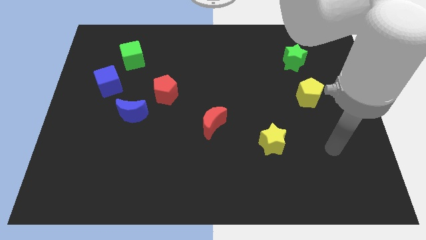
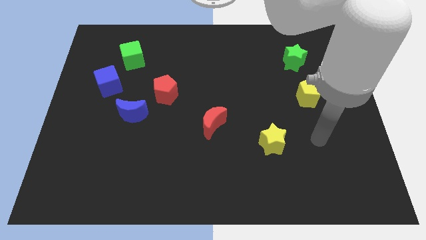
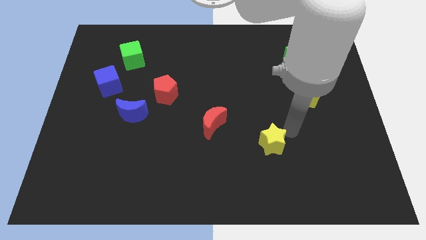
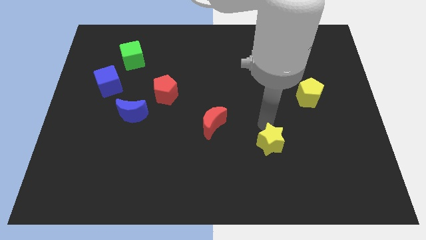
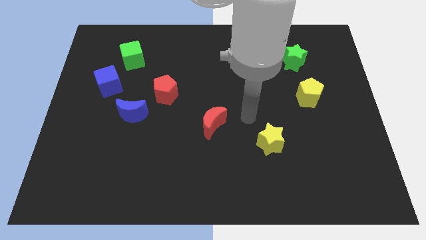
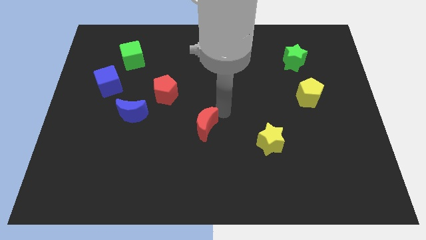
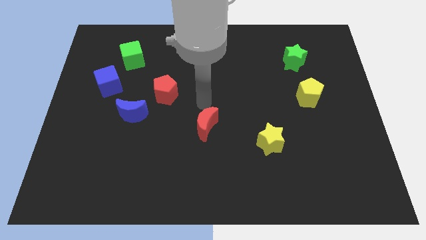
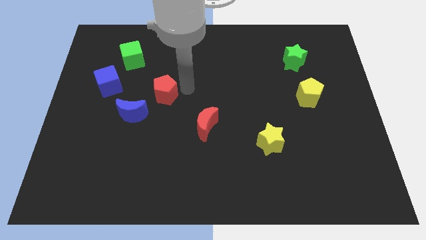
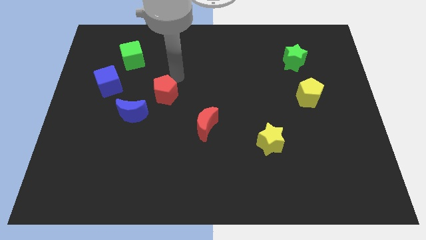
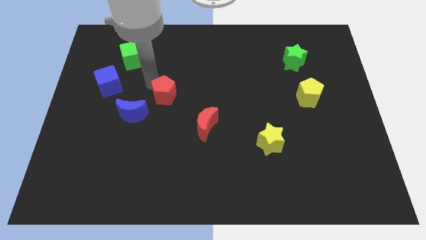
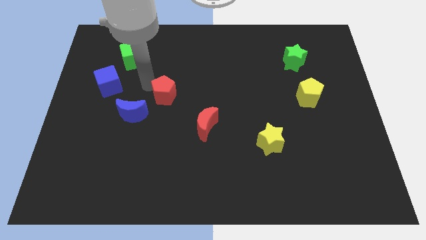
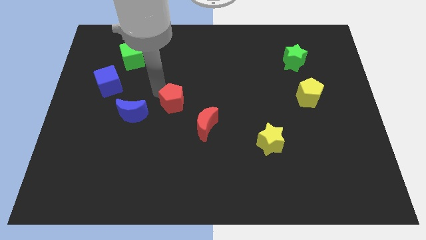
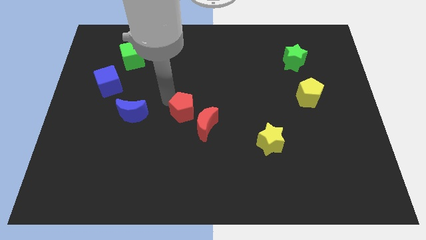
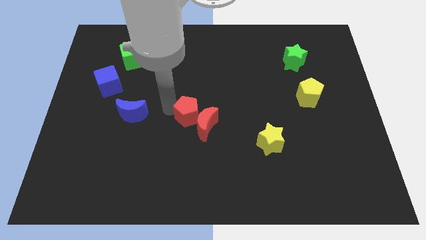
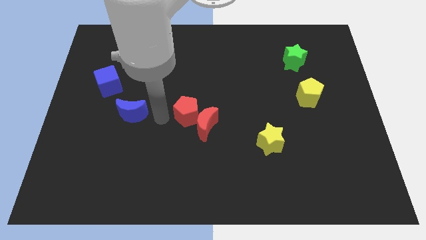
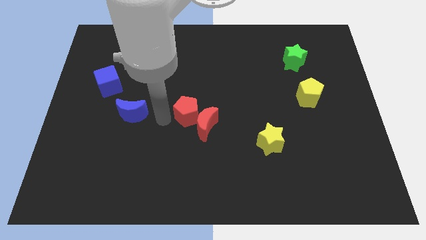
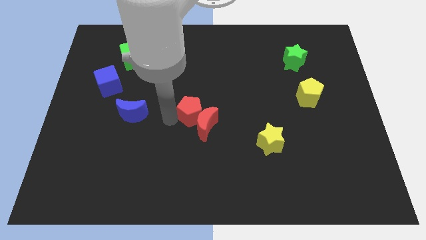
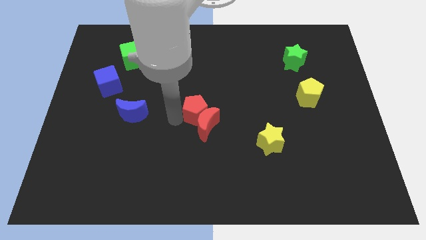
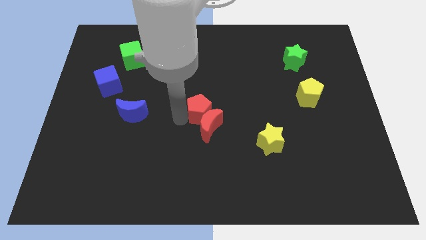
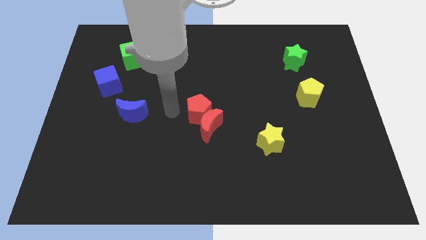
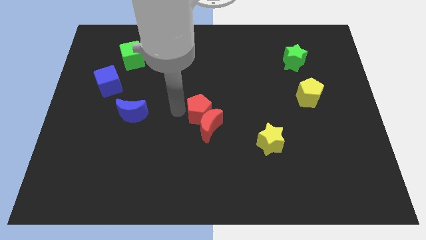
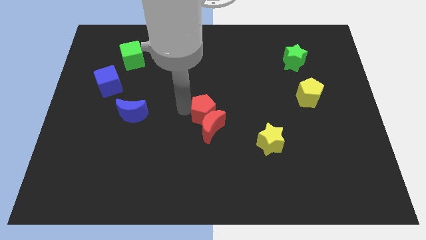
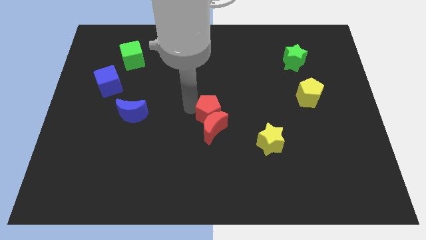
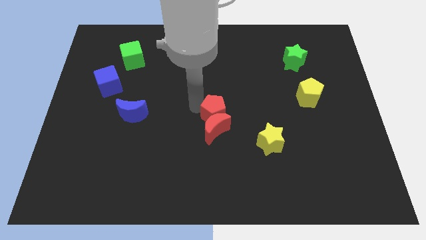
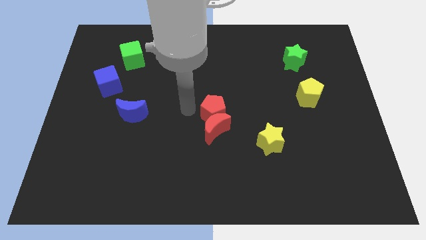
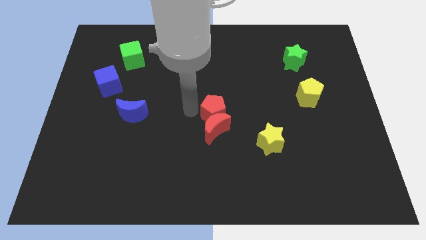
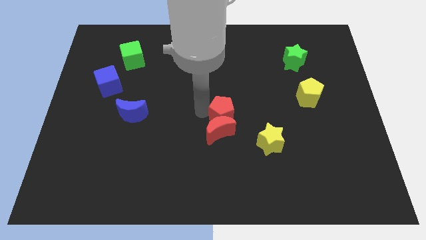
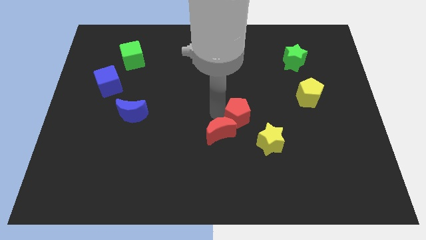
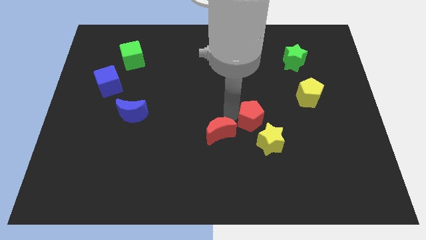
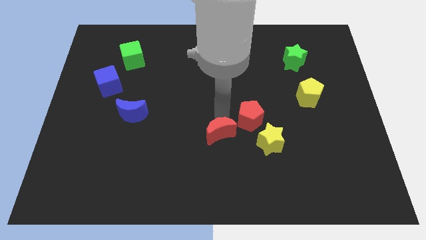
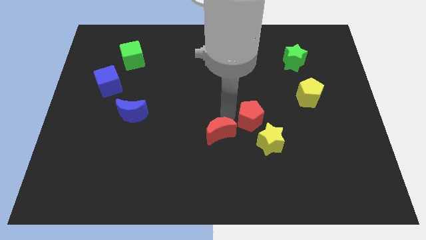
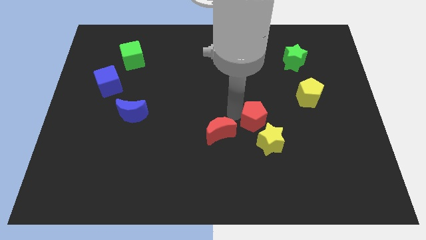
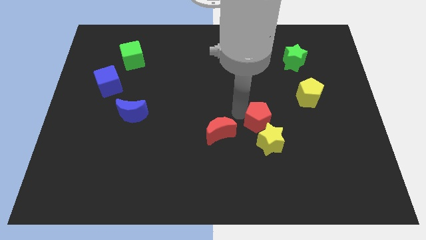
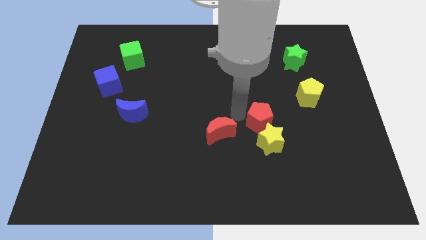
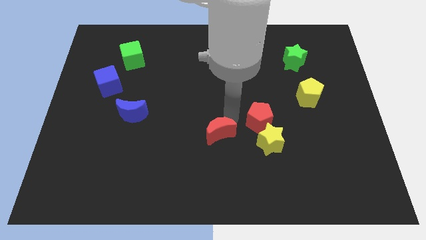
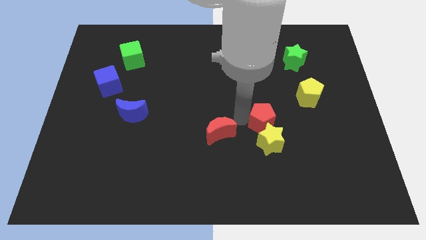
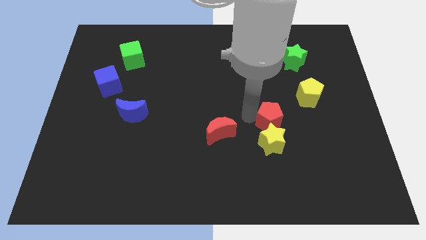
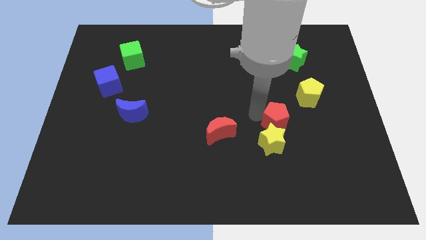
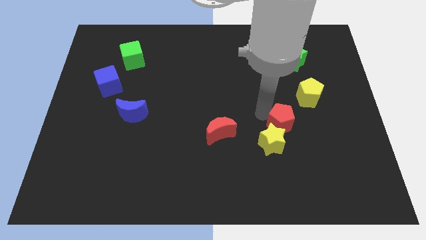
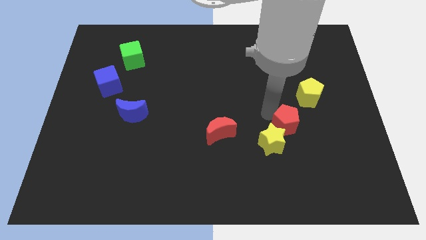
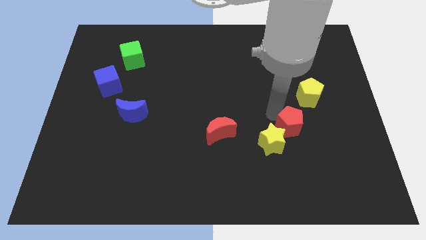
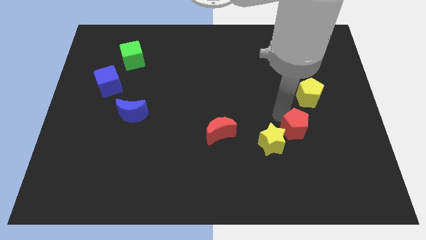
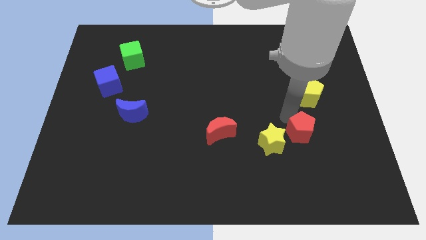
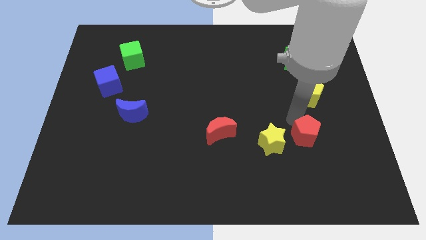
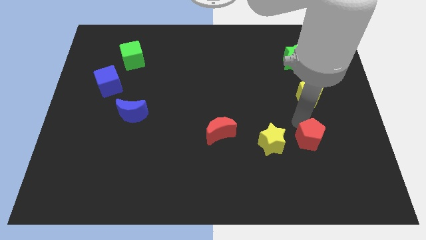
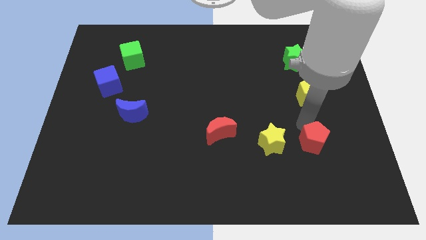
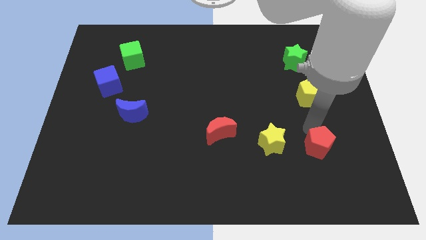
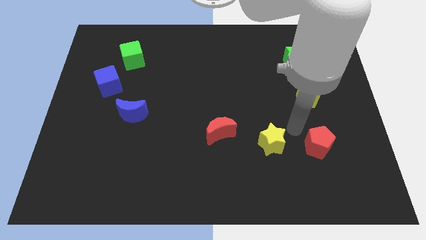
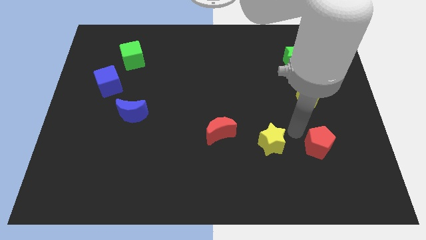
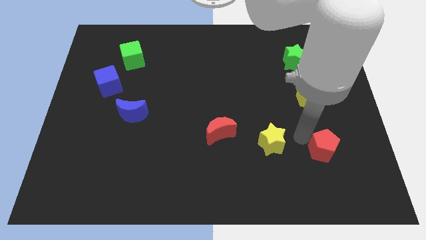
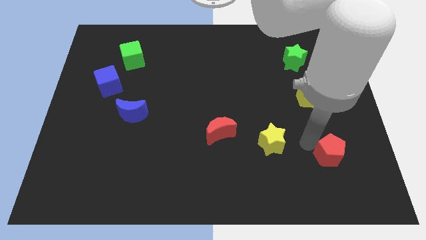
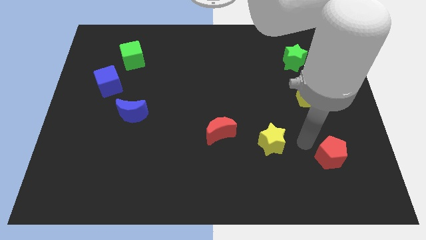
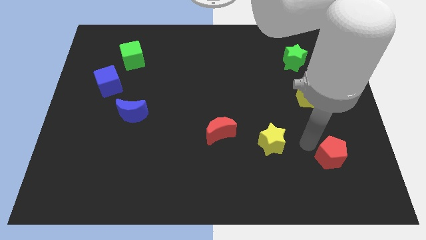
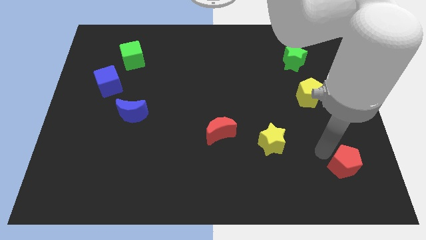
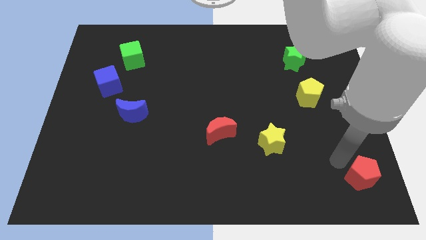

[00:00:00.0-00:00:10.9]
push the red pentagon to the bottom right

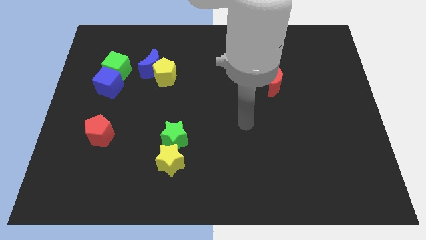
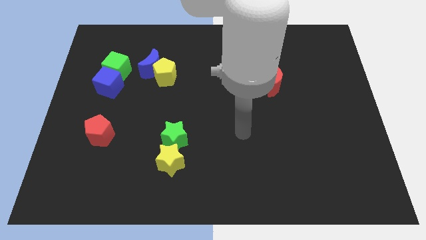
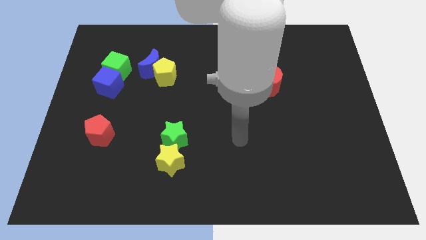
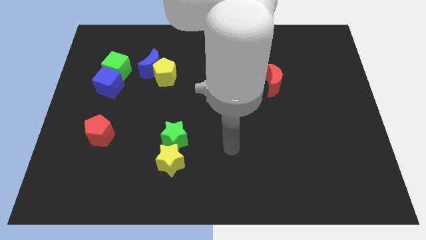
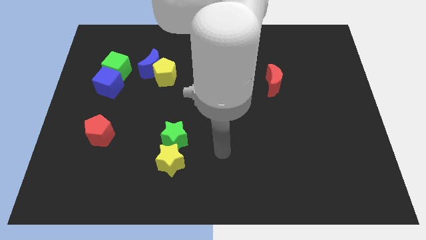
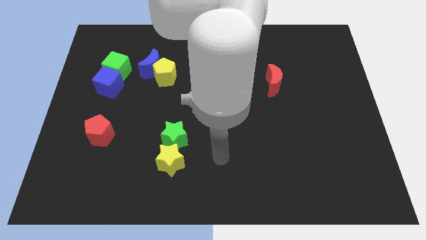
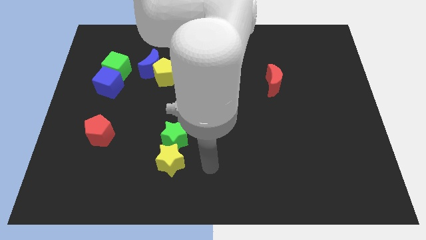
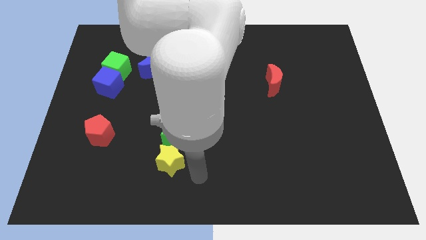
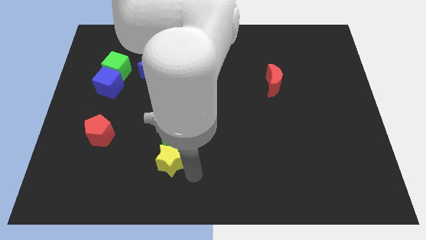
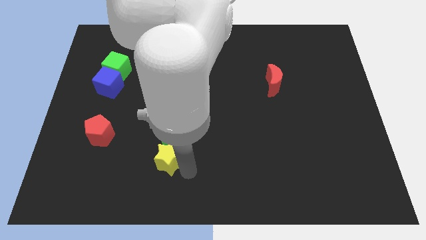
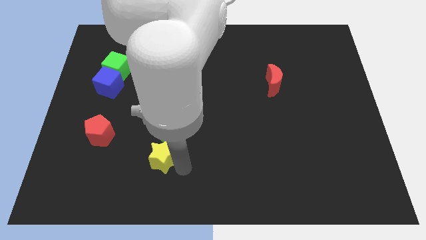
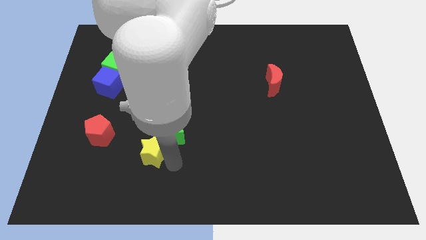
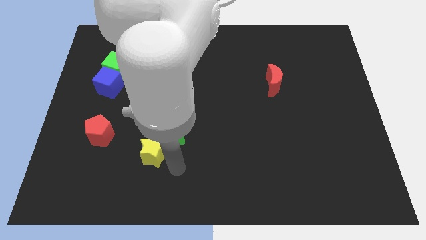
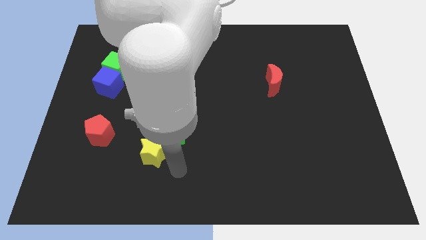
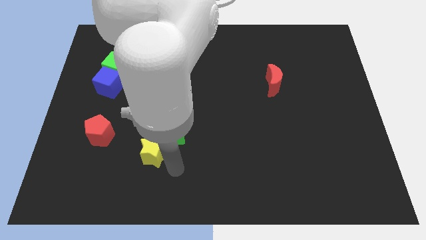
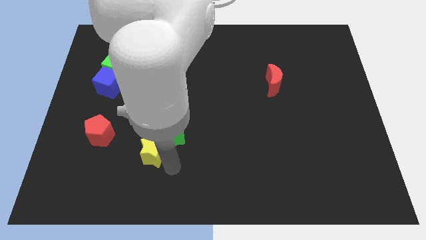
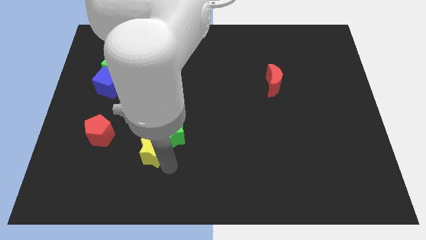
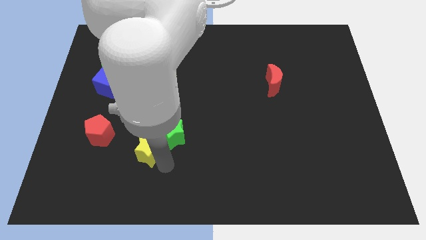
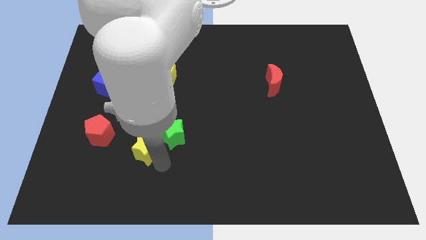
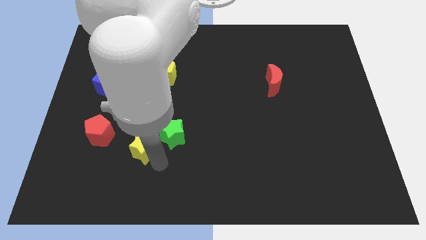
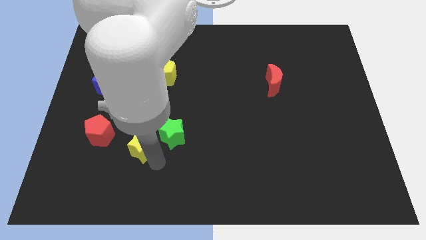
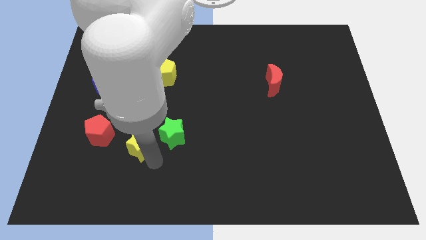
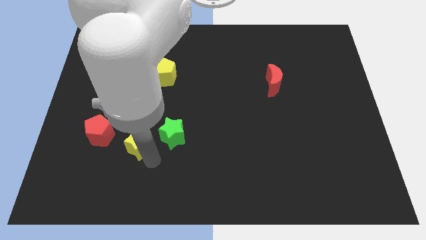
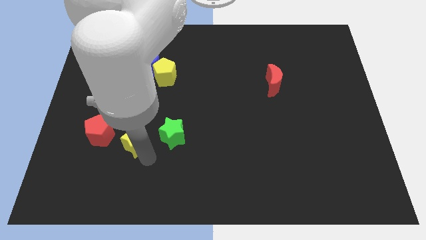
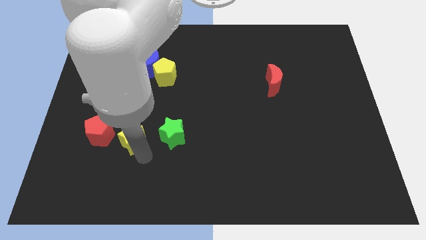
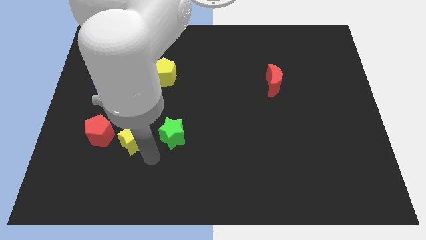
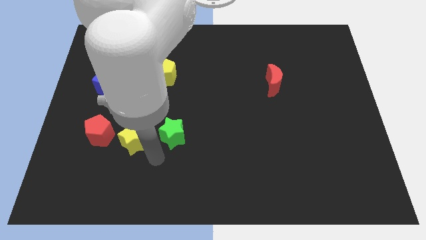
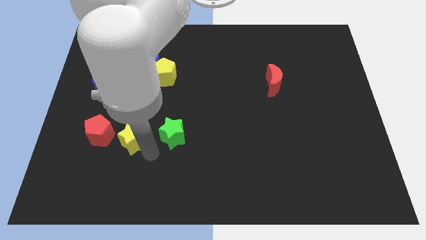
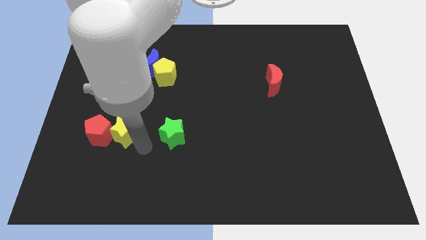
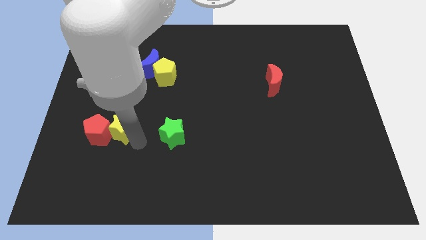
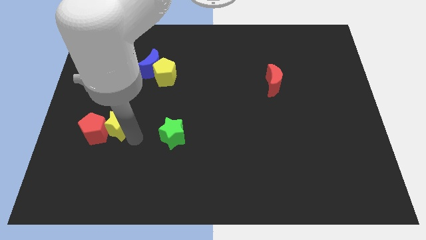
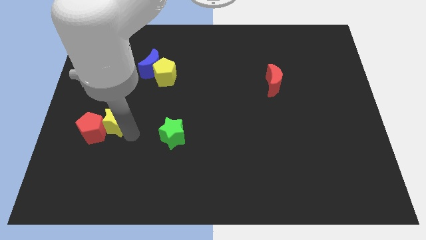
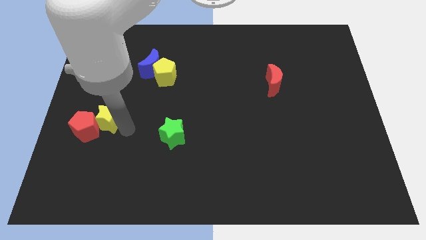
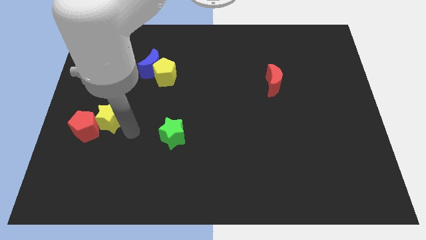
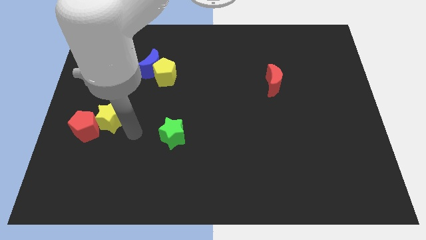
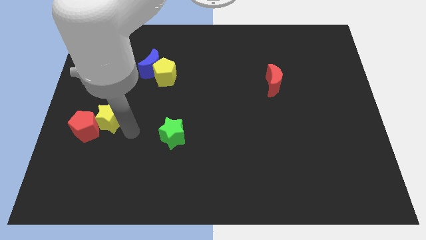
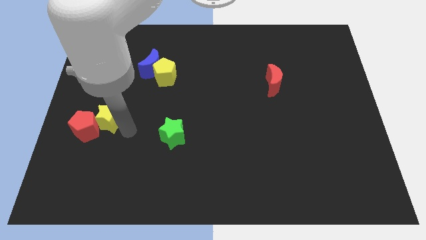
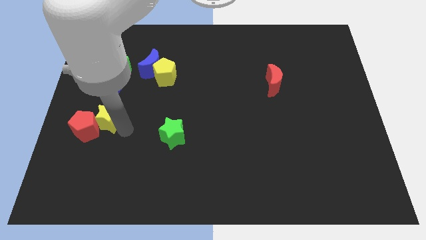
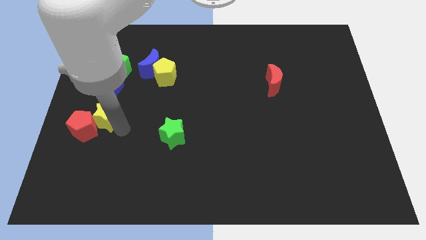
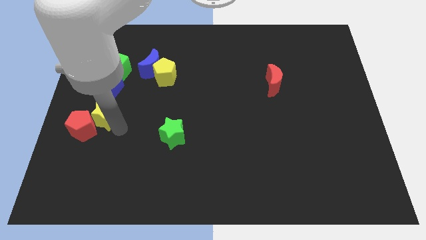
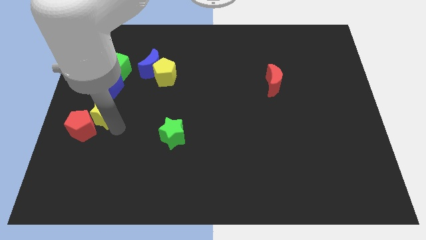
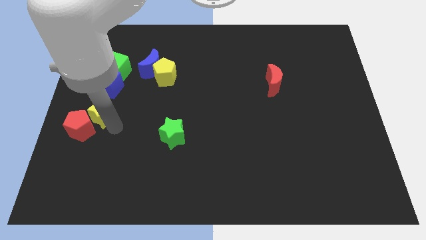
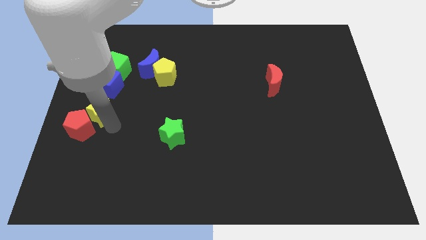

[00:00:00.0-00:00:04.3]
put the yellow star to the left side
